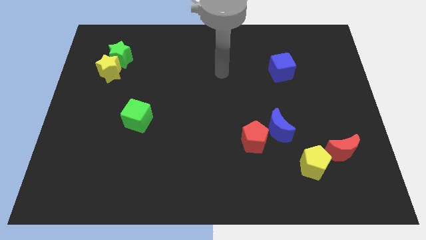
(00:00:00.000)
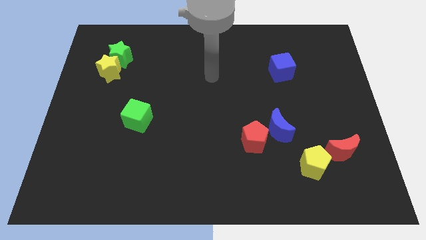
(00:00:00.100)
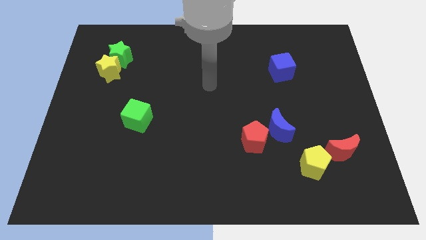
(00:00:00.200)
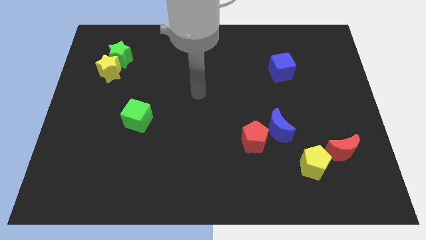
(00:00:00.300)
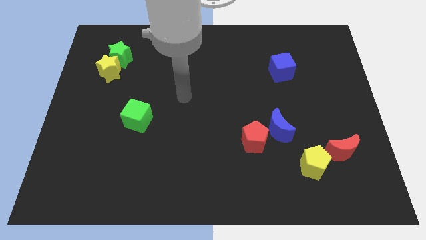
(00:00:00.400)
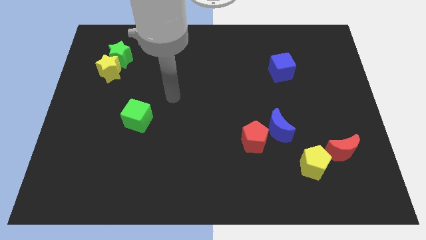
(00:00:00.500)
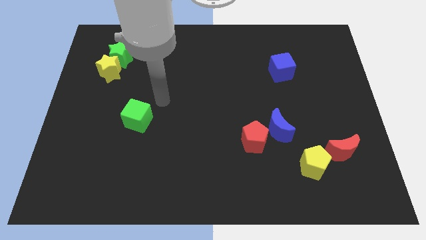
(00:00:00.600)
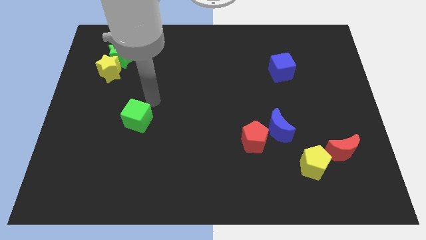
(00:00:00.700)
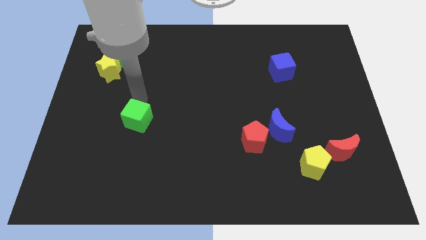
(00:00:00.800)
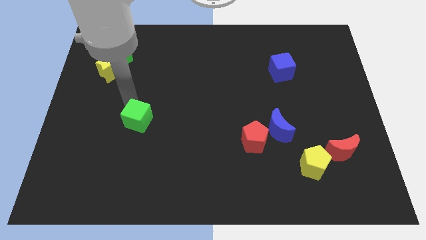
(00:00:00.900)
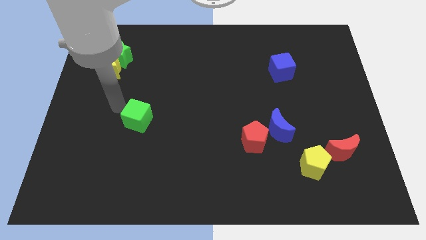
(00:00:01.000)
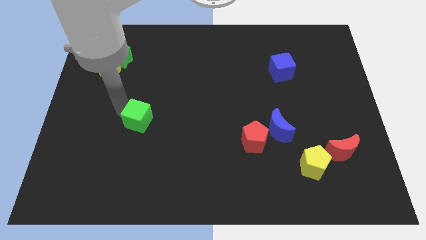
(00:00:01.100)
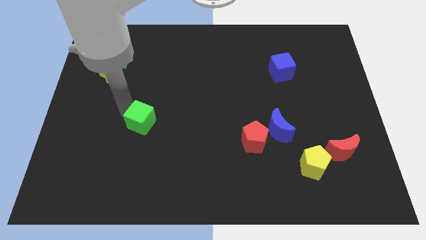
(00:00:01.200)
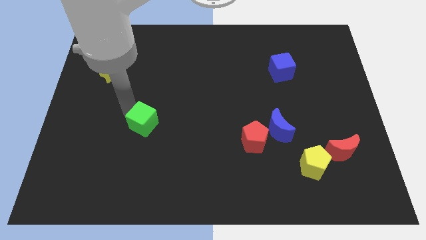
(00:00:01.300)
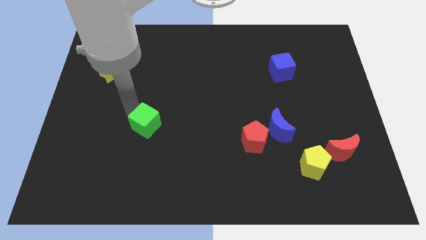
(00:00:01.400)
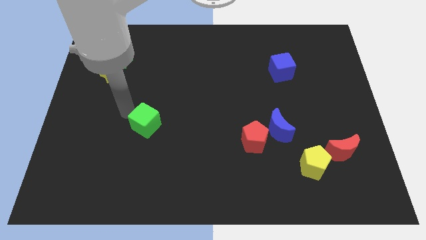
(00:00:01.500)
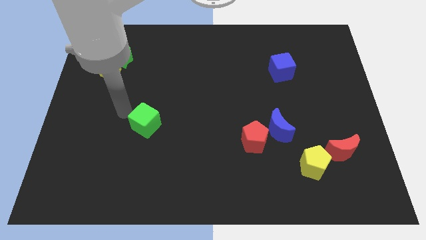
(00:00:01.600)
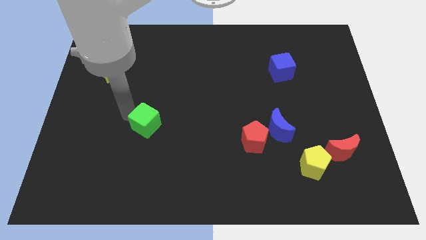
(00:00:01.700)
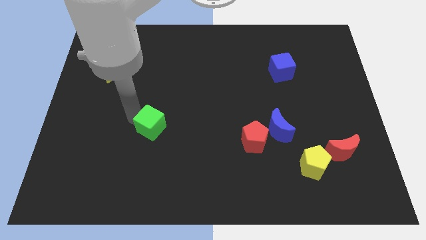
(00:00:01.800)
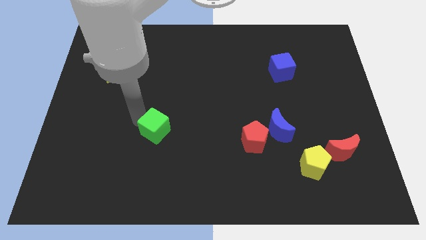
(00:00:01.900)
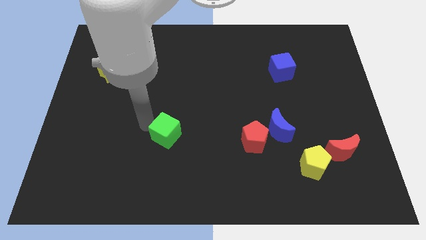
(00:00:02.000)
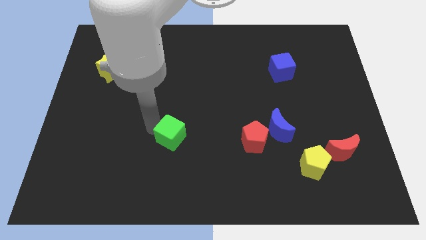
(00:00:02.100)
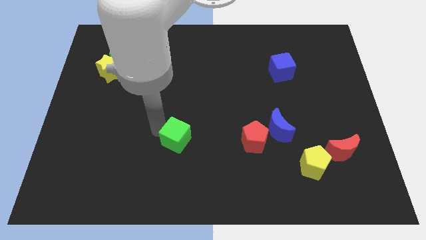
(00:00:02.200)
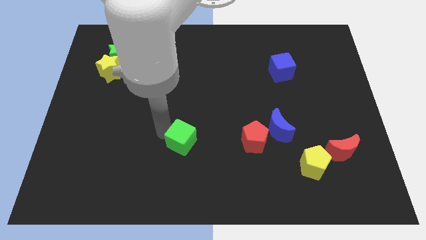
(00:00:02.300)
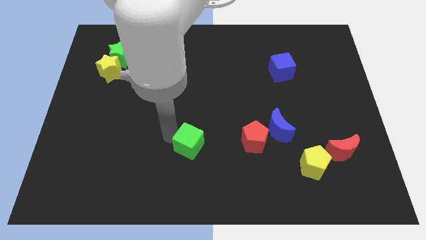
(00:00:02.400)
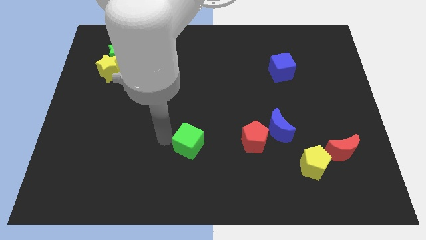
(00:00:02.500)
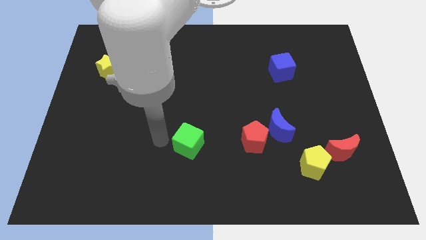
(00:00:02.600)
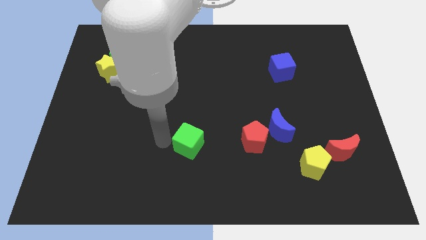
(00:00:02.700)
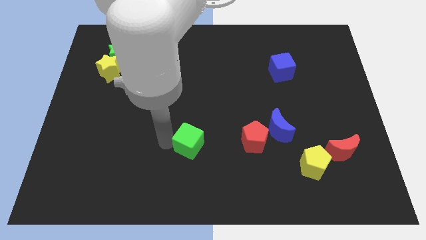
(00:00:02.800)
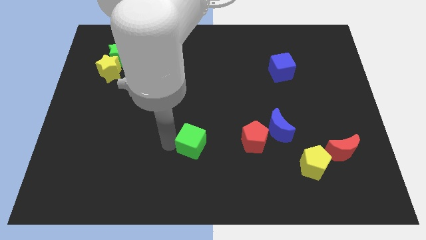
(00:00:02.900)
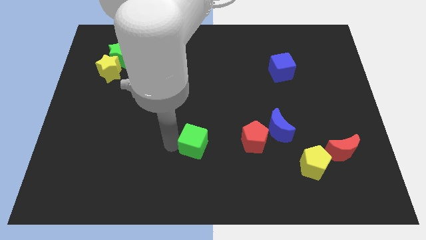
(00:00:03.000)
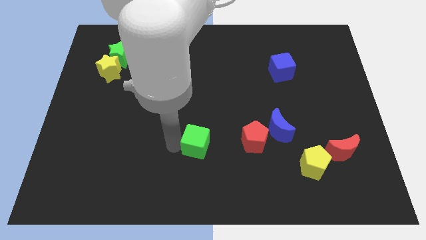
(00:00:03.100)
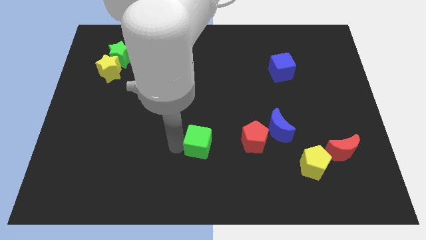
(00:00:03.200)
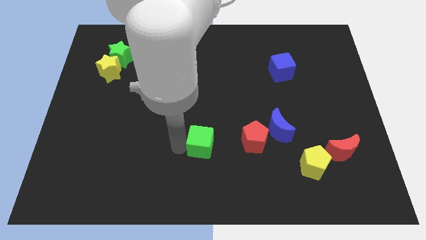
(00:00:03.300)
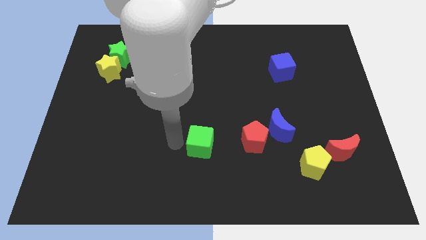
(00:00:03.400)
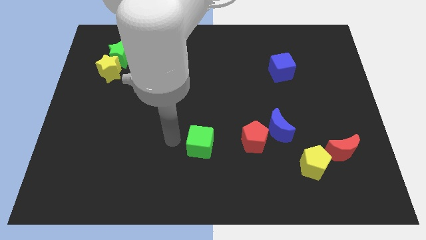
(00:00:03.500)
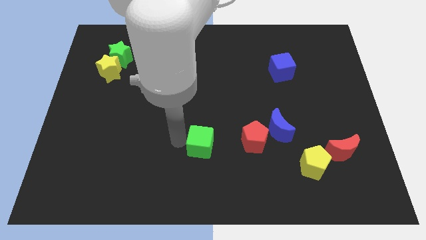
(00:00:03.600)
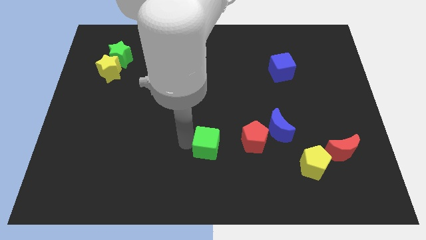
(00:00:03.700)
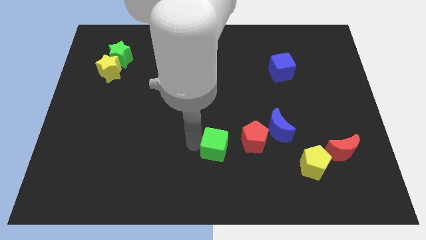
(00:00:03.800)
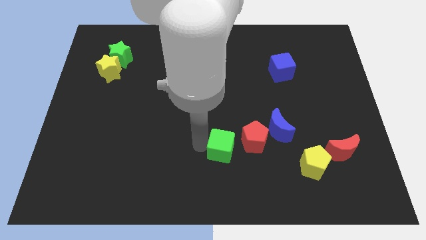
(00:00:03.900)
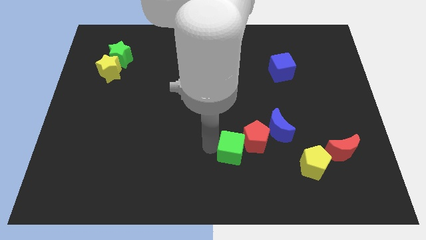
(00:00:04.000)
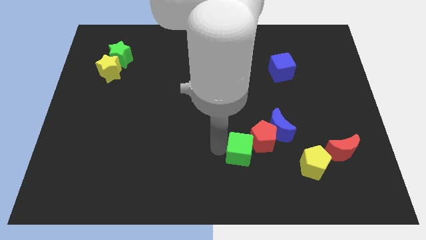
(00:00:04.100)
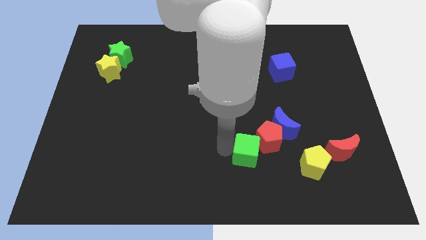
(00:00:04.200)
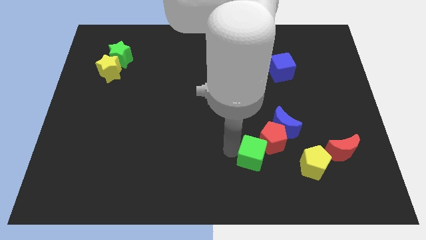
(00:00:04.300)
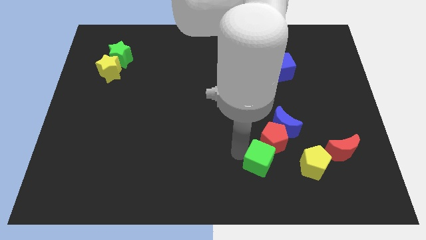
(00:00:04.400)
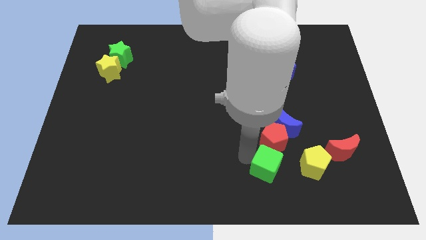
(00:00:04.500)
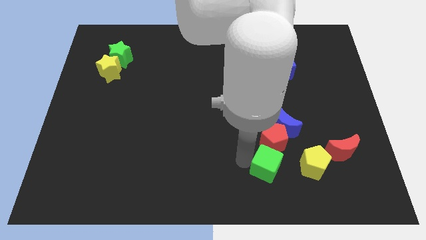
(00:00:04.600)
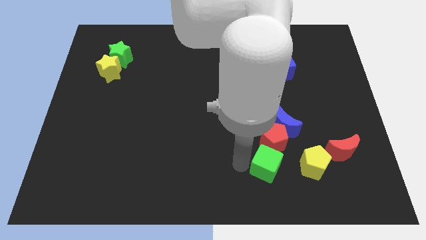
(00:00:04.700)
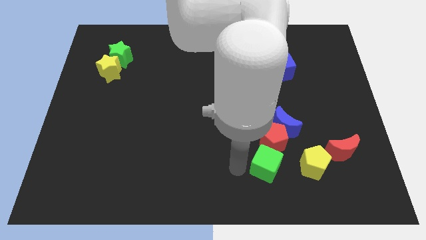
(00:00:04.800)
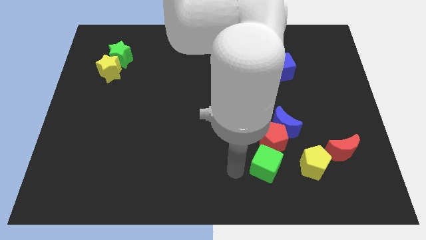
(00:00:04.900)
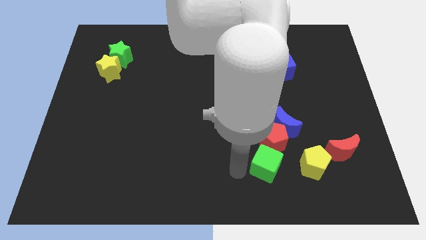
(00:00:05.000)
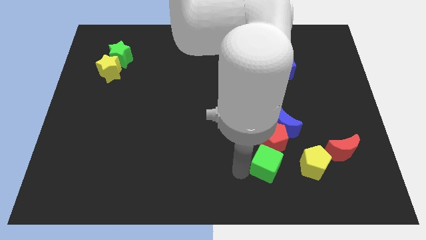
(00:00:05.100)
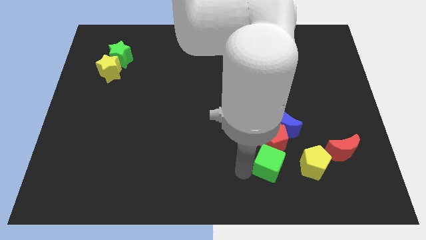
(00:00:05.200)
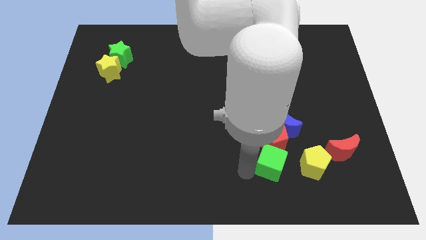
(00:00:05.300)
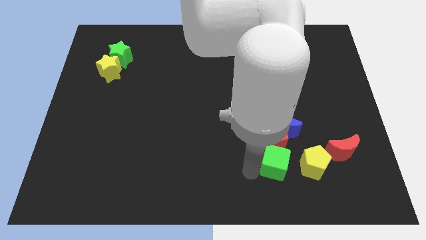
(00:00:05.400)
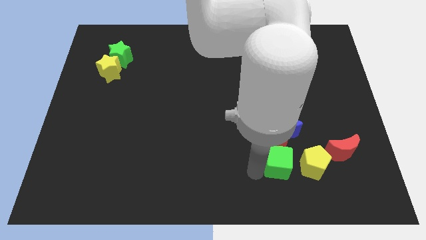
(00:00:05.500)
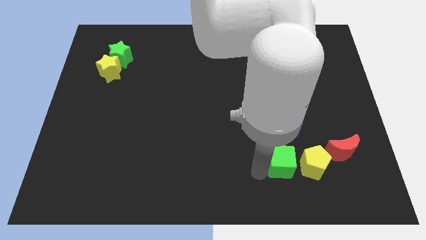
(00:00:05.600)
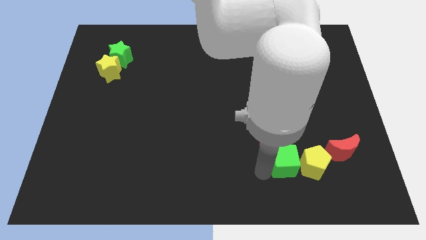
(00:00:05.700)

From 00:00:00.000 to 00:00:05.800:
slide the green cube close to the yellow pentagon

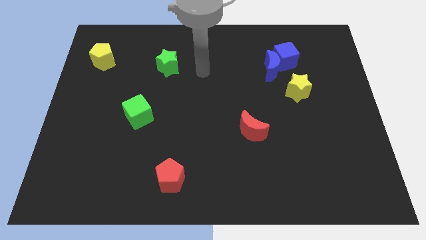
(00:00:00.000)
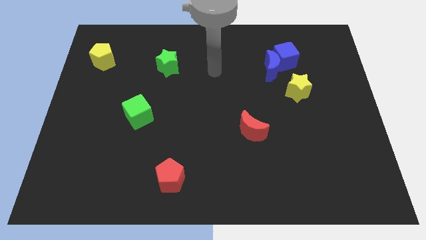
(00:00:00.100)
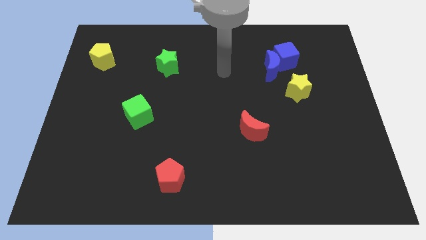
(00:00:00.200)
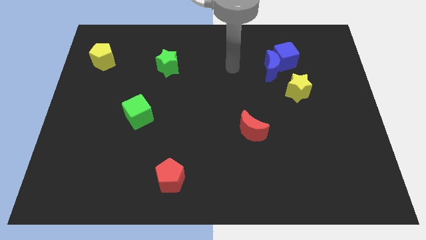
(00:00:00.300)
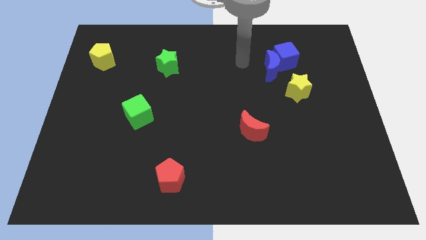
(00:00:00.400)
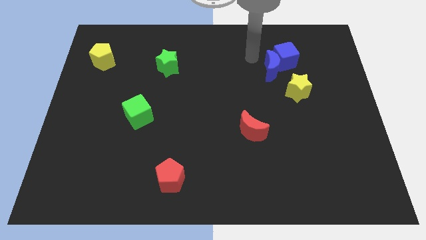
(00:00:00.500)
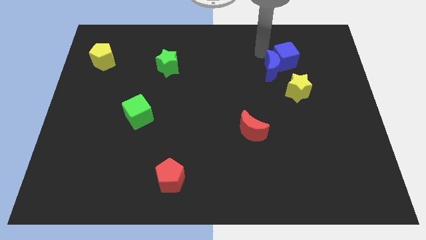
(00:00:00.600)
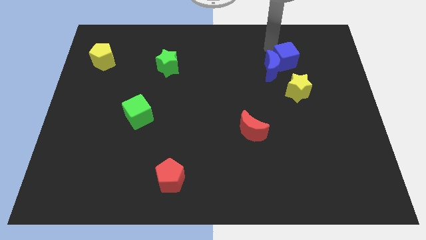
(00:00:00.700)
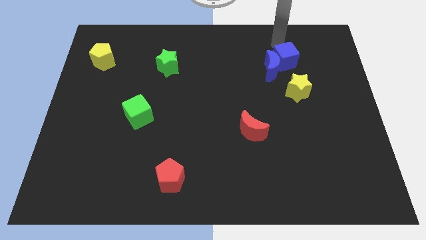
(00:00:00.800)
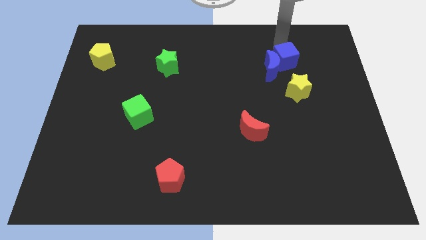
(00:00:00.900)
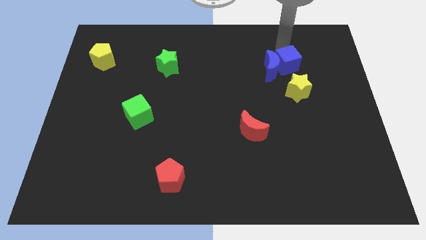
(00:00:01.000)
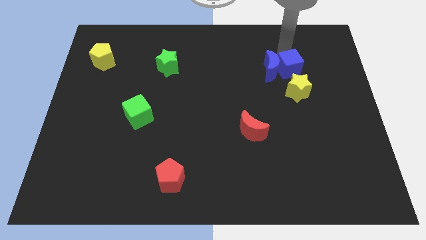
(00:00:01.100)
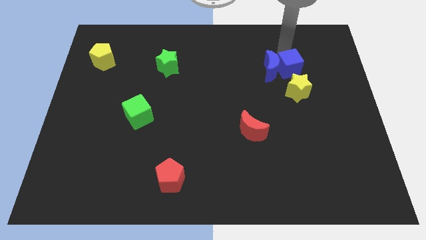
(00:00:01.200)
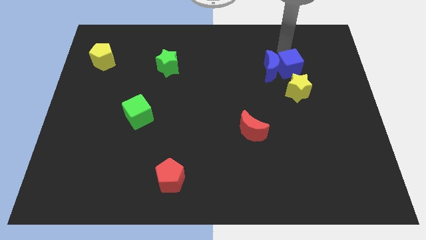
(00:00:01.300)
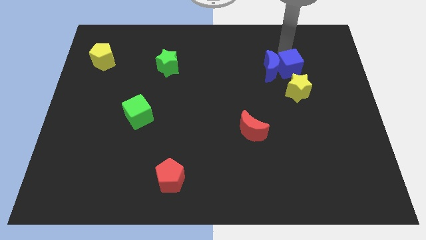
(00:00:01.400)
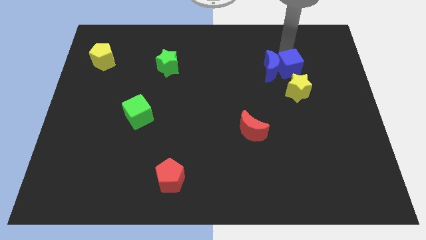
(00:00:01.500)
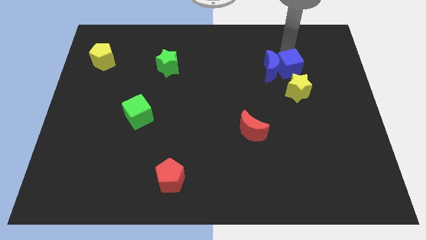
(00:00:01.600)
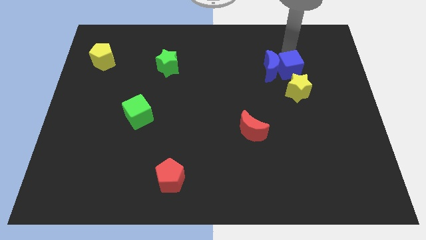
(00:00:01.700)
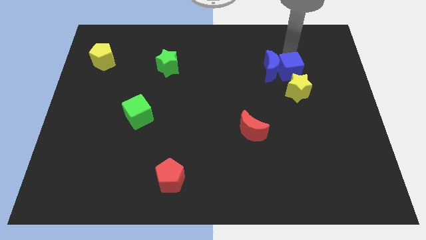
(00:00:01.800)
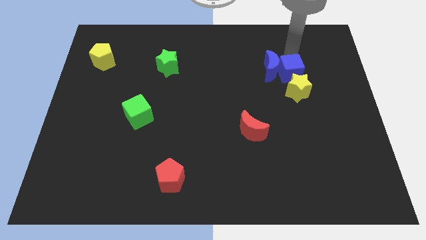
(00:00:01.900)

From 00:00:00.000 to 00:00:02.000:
put the blue cube close to the yellow star
